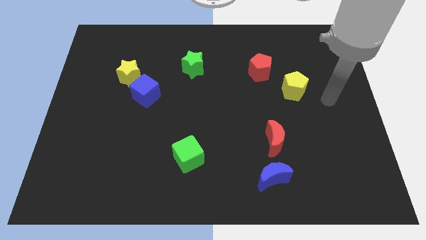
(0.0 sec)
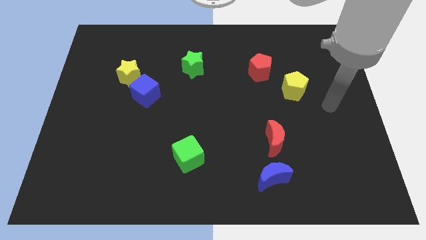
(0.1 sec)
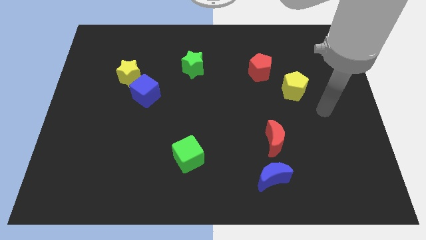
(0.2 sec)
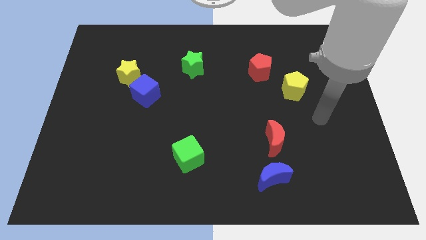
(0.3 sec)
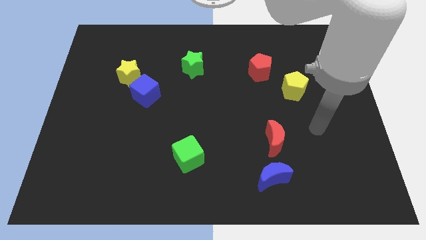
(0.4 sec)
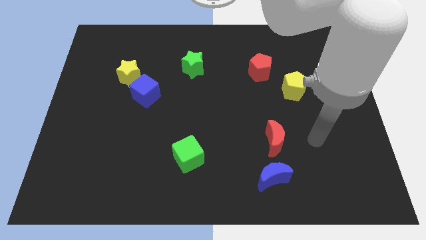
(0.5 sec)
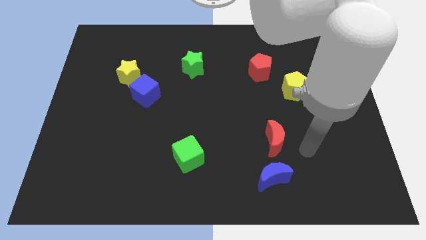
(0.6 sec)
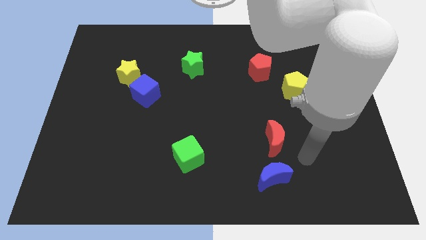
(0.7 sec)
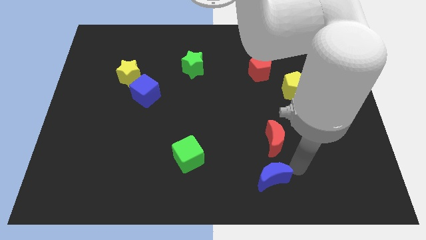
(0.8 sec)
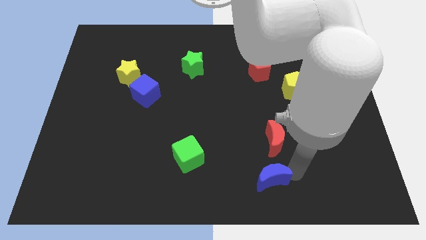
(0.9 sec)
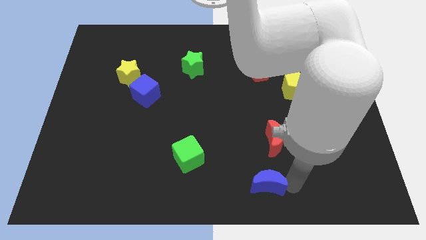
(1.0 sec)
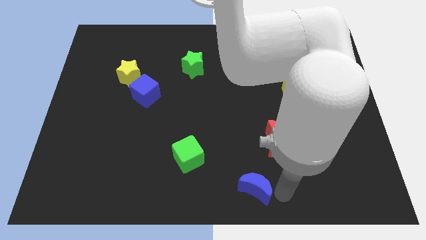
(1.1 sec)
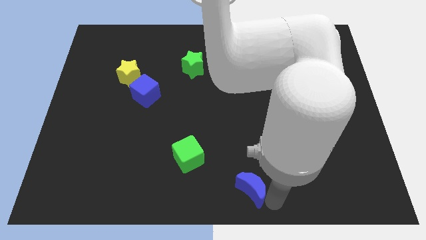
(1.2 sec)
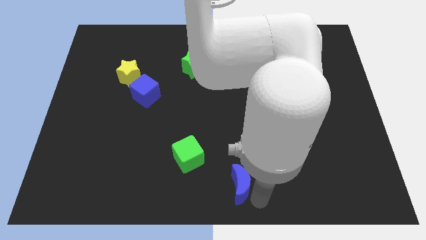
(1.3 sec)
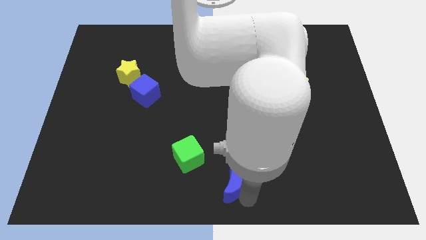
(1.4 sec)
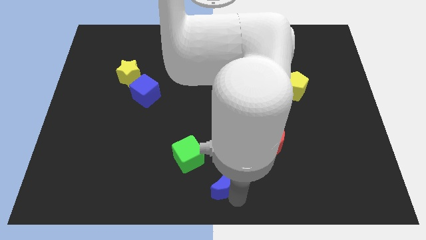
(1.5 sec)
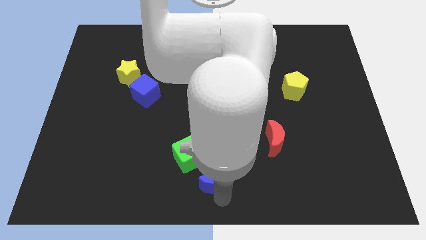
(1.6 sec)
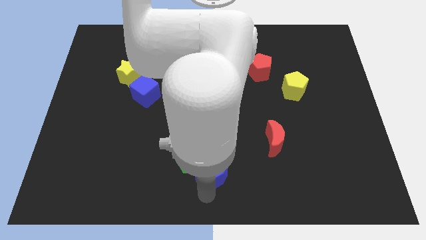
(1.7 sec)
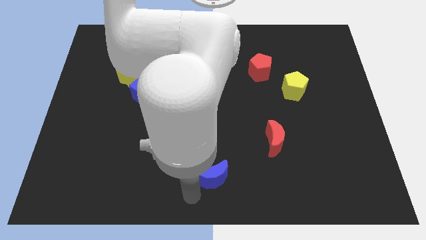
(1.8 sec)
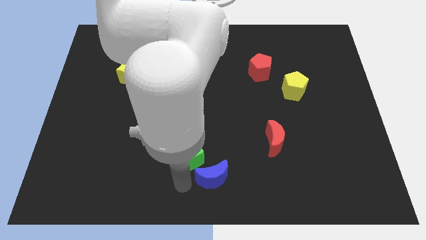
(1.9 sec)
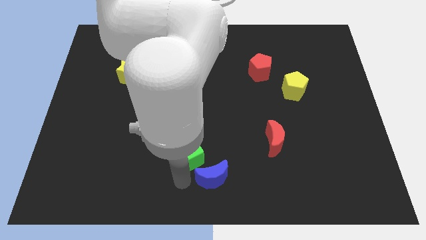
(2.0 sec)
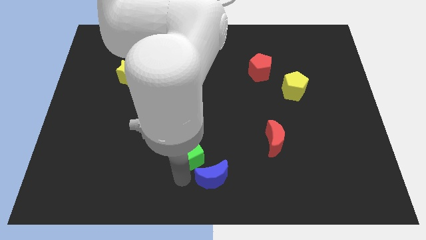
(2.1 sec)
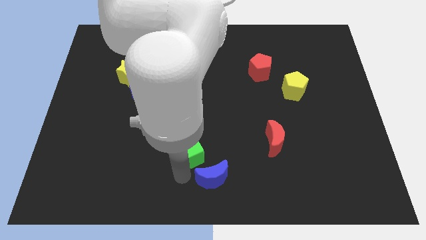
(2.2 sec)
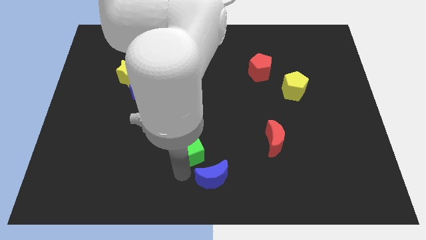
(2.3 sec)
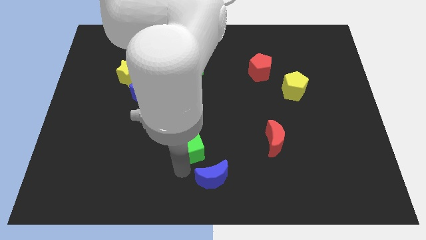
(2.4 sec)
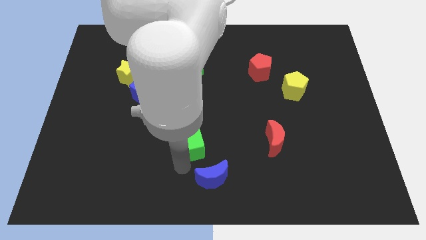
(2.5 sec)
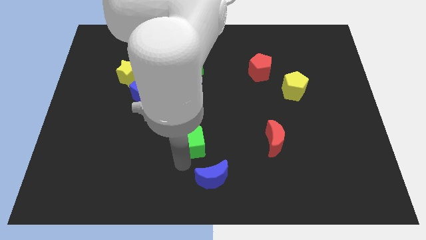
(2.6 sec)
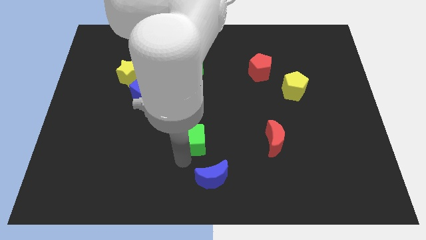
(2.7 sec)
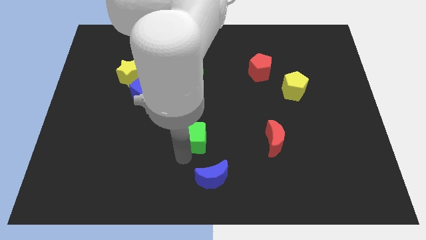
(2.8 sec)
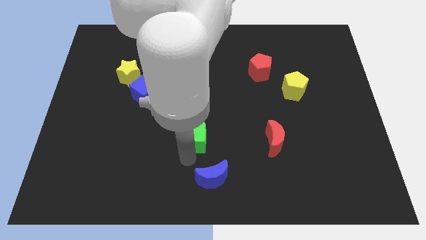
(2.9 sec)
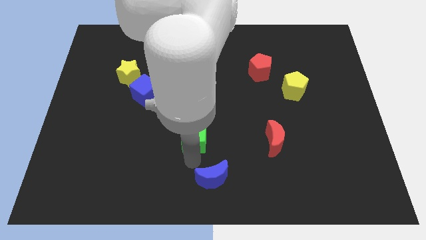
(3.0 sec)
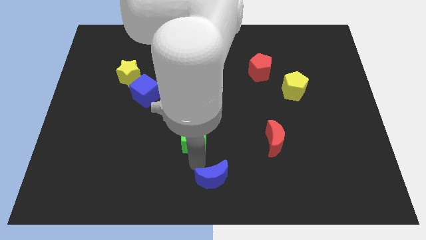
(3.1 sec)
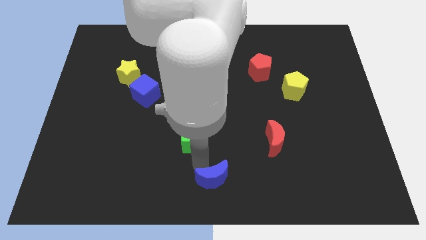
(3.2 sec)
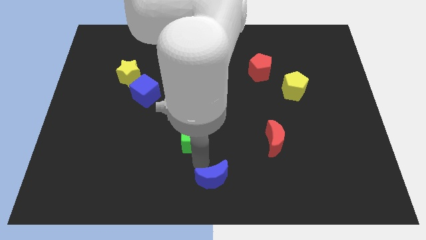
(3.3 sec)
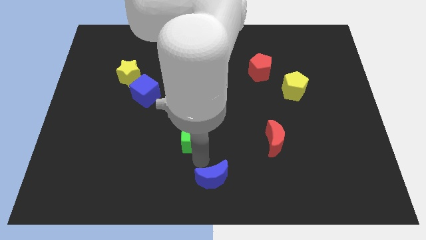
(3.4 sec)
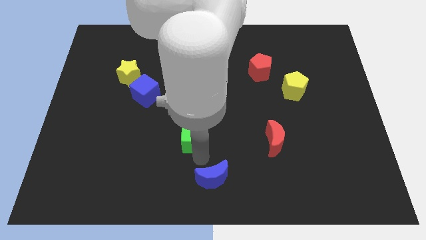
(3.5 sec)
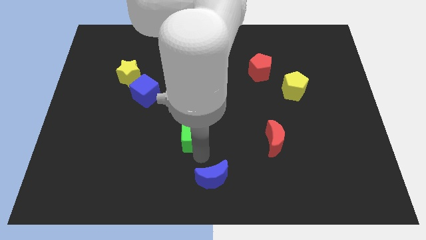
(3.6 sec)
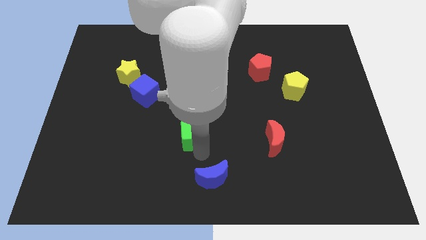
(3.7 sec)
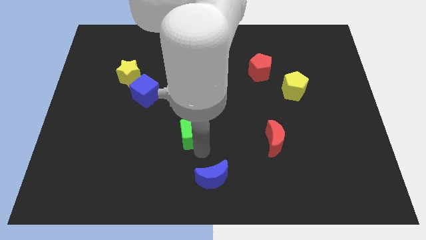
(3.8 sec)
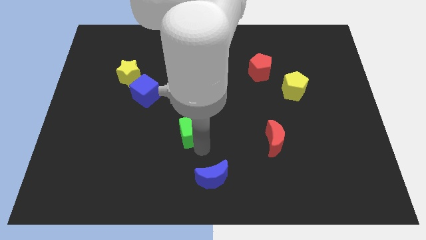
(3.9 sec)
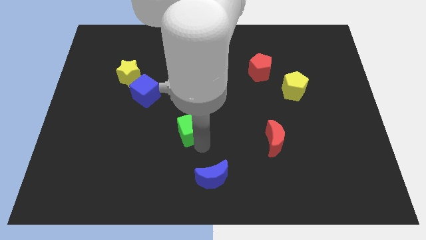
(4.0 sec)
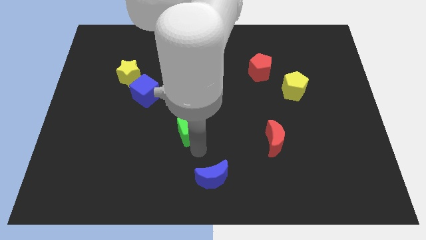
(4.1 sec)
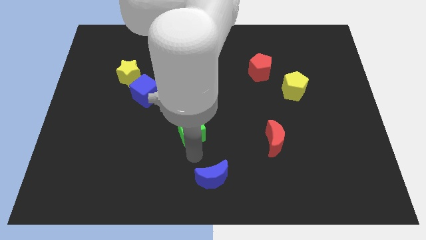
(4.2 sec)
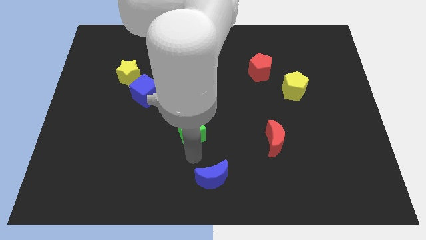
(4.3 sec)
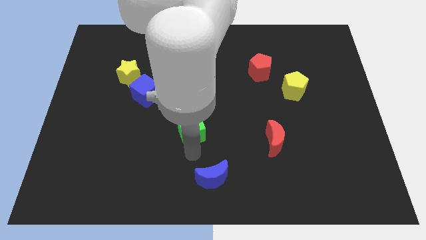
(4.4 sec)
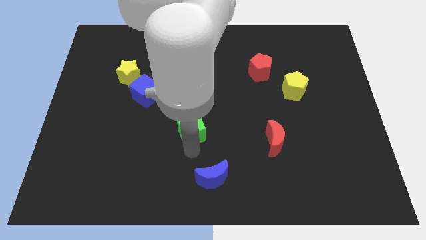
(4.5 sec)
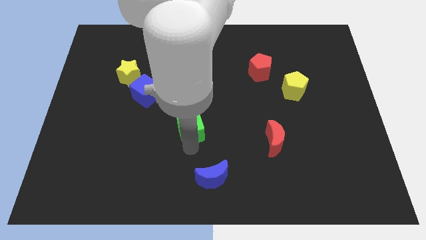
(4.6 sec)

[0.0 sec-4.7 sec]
push the green cube somewhat upwards

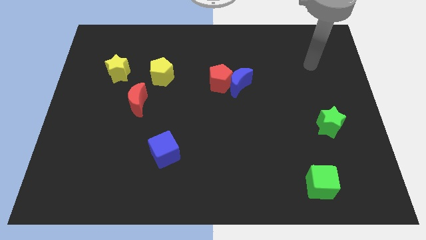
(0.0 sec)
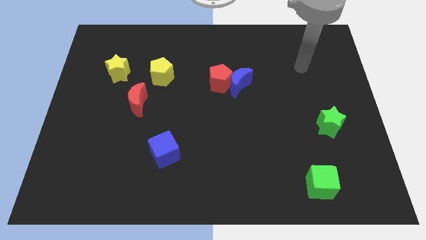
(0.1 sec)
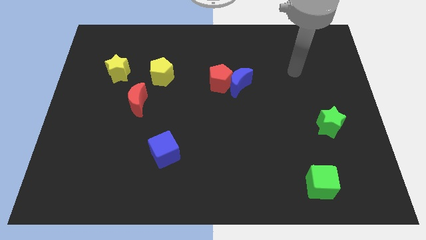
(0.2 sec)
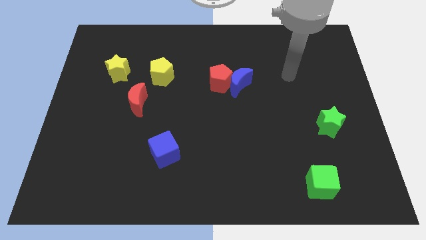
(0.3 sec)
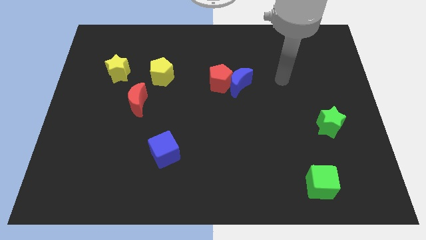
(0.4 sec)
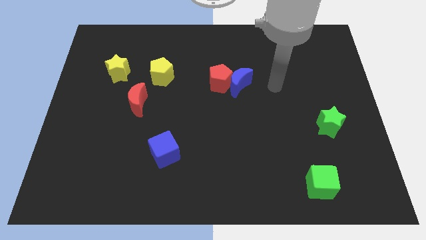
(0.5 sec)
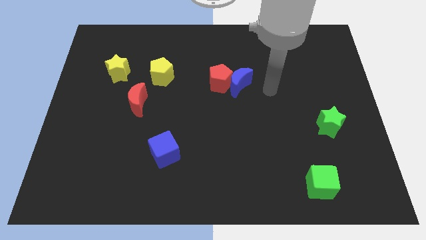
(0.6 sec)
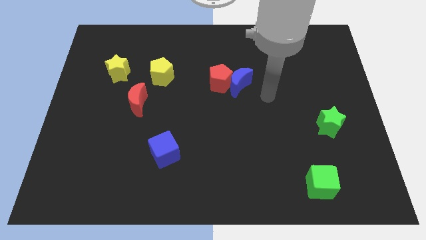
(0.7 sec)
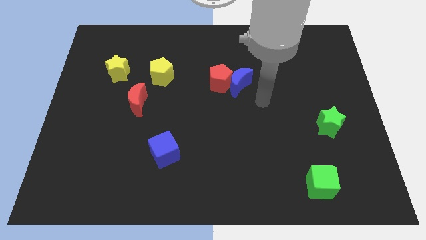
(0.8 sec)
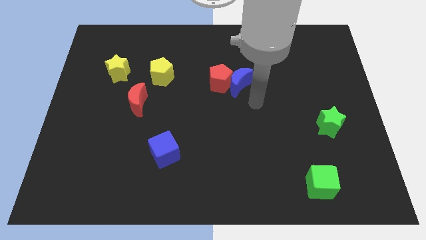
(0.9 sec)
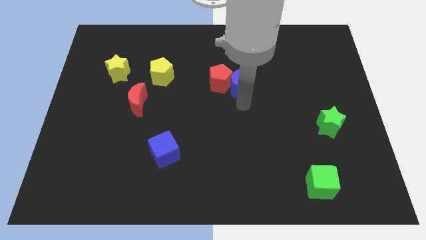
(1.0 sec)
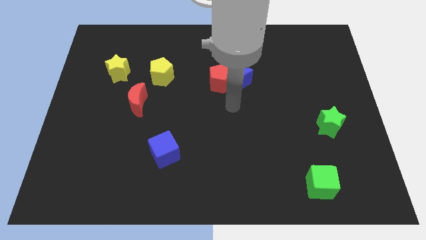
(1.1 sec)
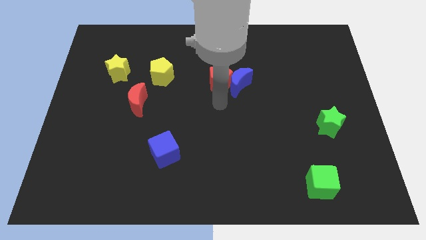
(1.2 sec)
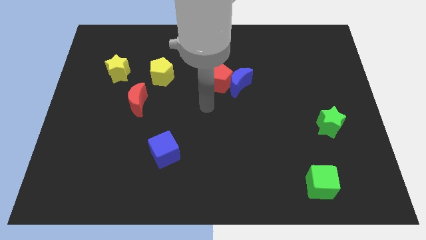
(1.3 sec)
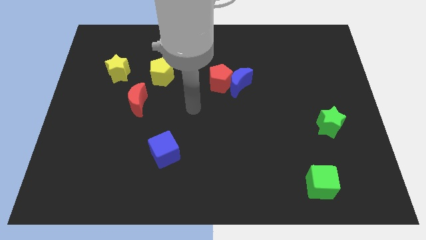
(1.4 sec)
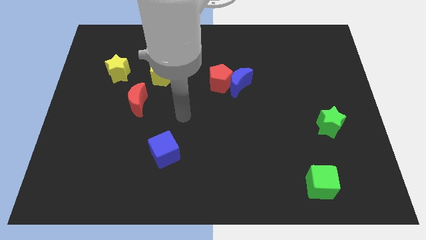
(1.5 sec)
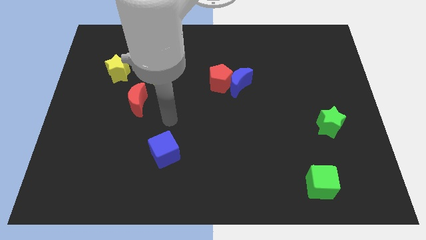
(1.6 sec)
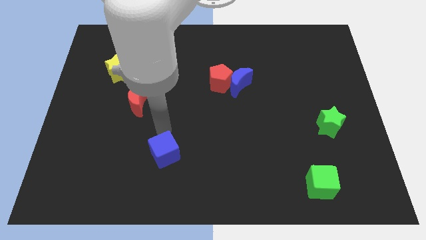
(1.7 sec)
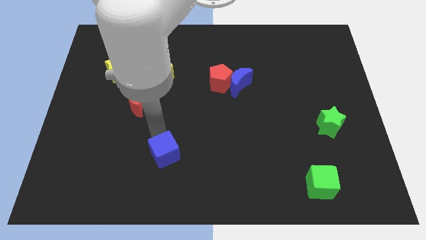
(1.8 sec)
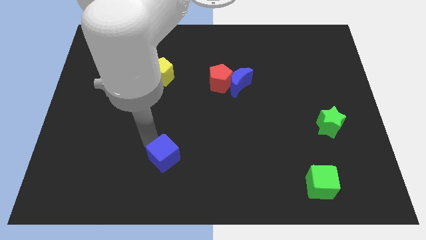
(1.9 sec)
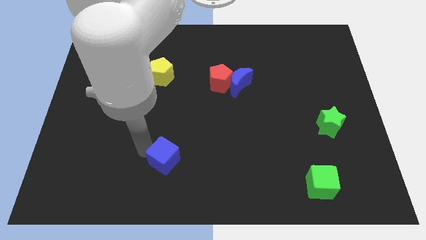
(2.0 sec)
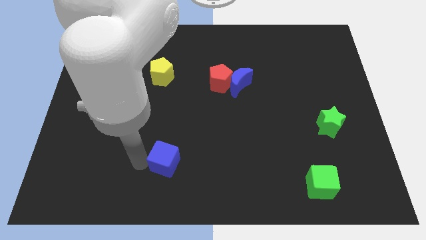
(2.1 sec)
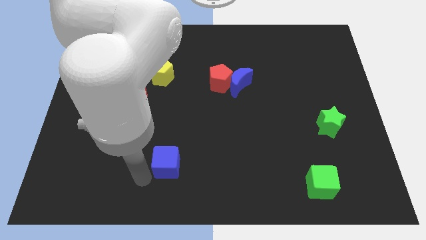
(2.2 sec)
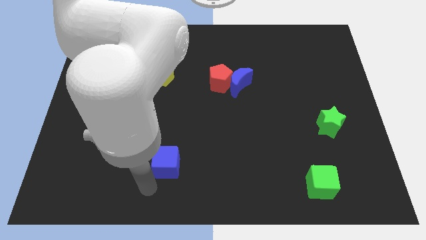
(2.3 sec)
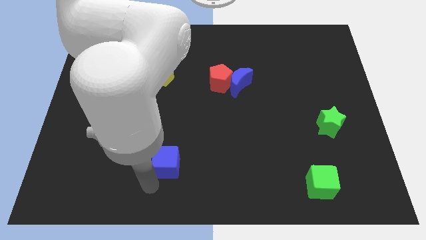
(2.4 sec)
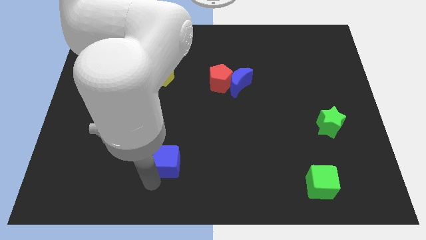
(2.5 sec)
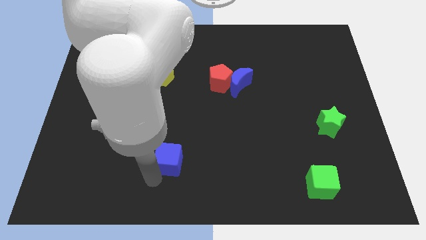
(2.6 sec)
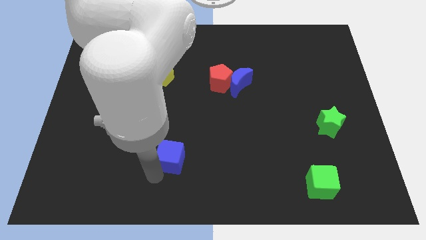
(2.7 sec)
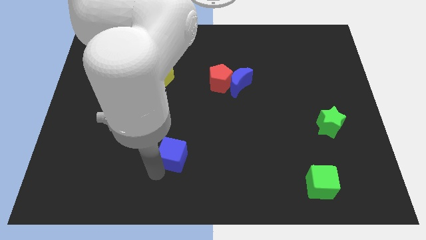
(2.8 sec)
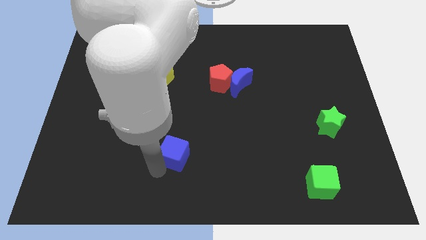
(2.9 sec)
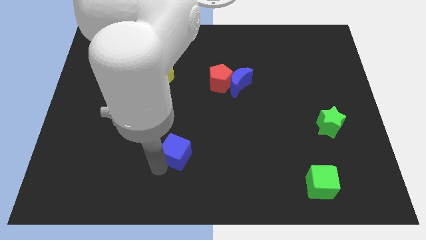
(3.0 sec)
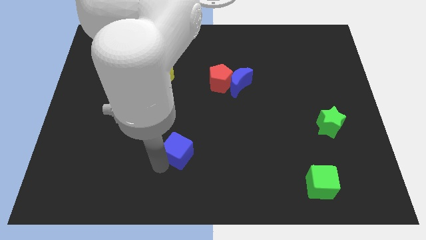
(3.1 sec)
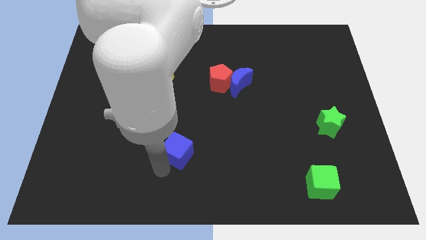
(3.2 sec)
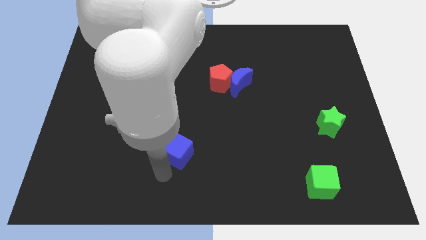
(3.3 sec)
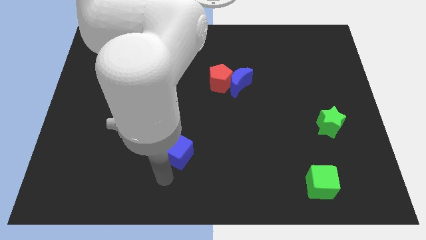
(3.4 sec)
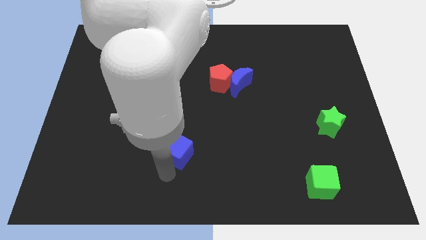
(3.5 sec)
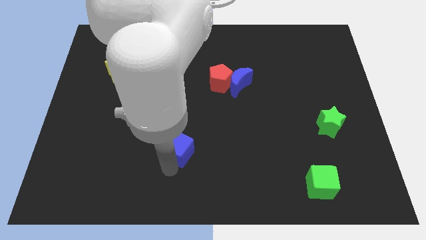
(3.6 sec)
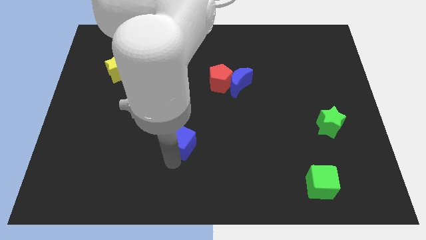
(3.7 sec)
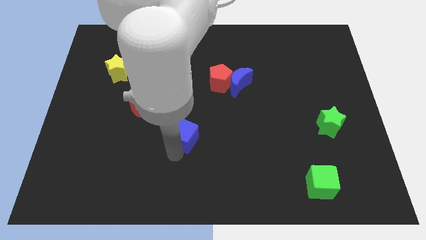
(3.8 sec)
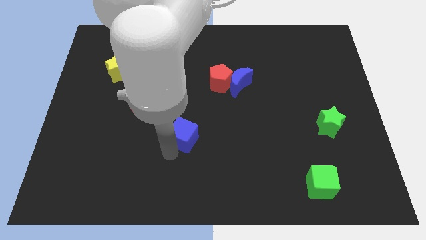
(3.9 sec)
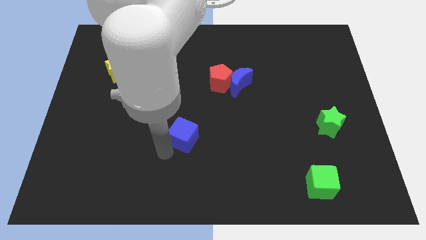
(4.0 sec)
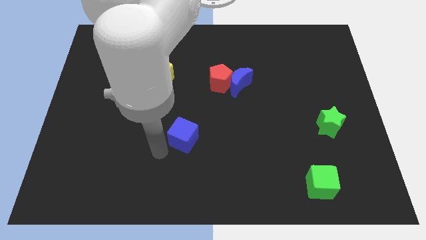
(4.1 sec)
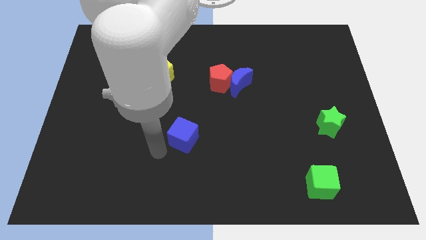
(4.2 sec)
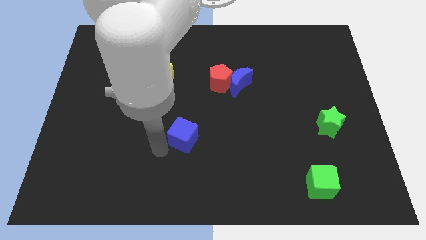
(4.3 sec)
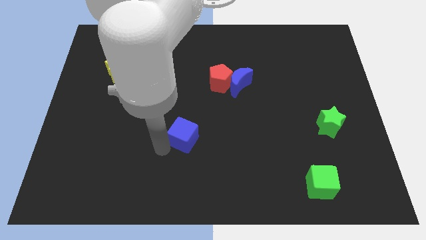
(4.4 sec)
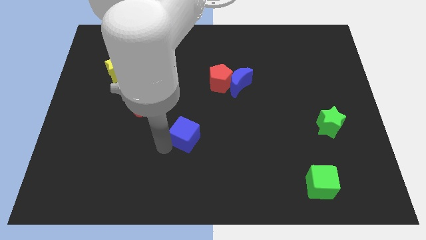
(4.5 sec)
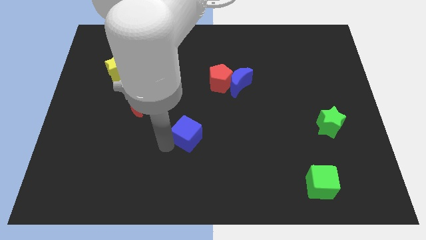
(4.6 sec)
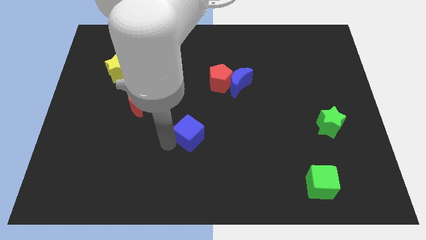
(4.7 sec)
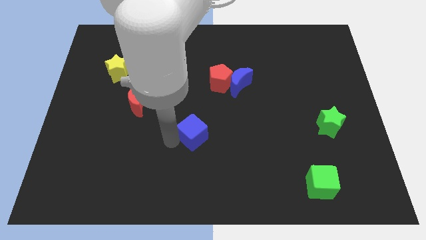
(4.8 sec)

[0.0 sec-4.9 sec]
move the blue cube a little bit up and right
